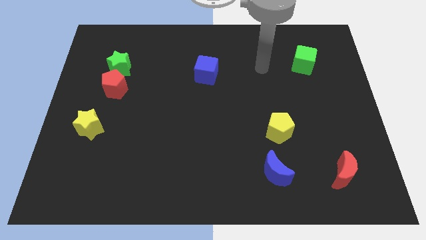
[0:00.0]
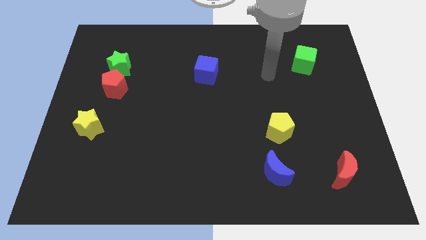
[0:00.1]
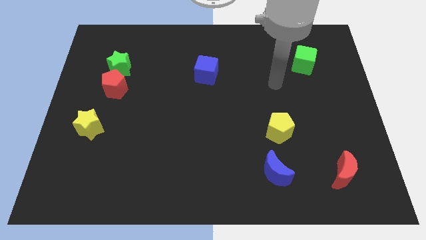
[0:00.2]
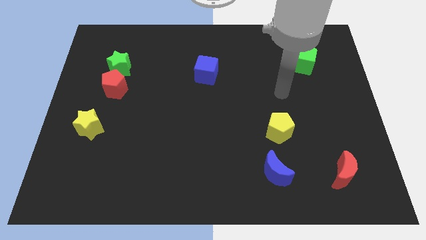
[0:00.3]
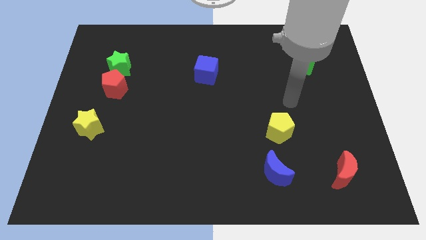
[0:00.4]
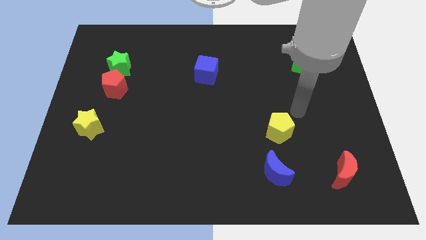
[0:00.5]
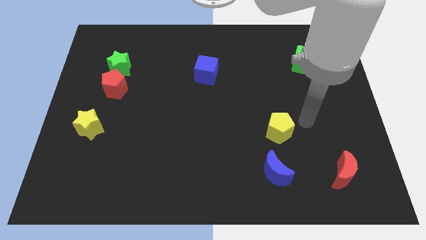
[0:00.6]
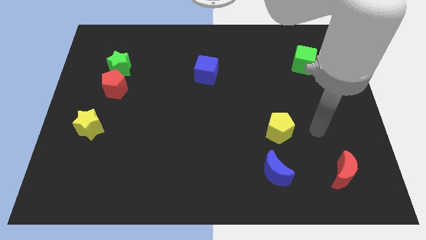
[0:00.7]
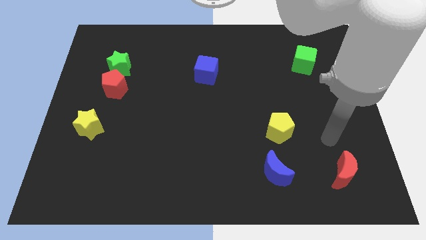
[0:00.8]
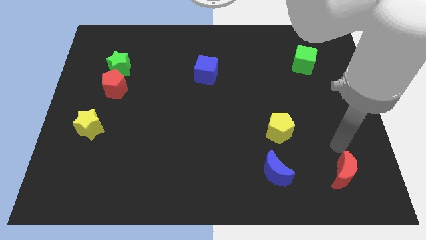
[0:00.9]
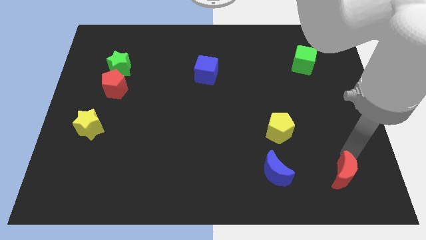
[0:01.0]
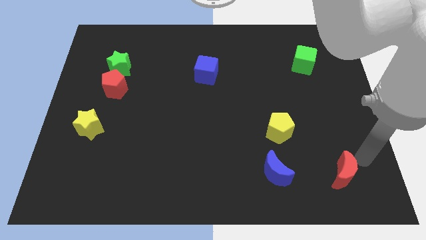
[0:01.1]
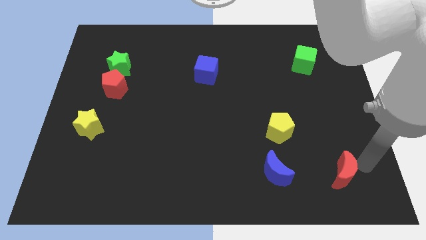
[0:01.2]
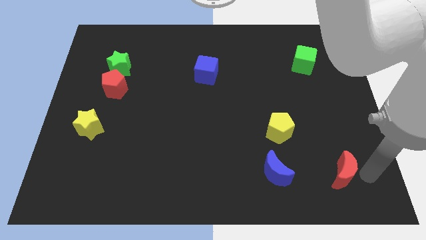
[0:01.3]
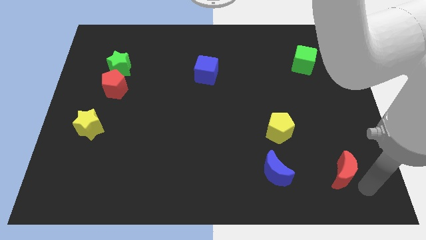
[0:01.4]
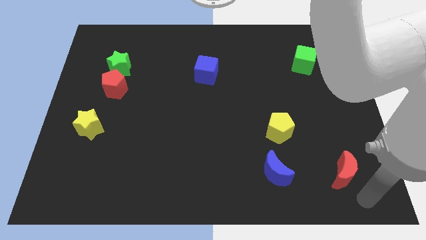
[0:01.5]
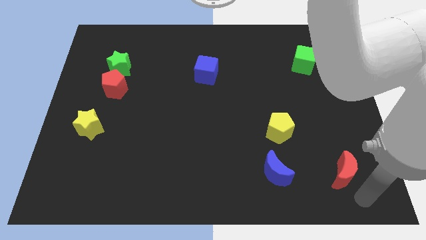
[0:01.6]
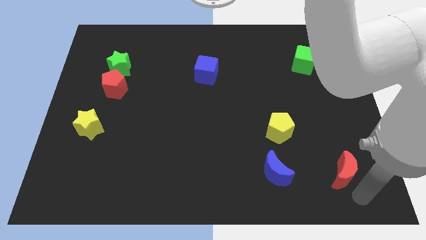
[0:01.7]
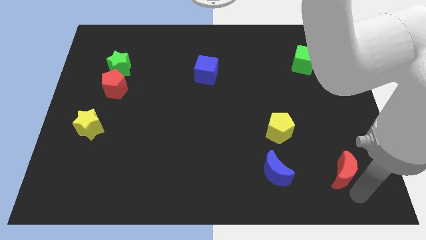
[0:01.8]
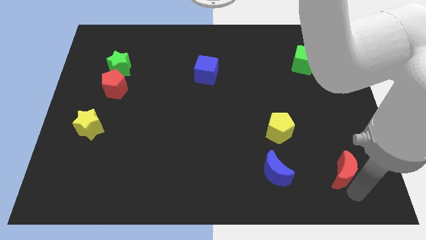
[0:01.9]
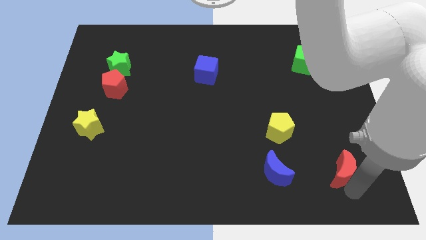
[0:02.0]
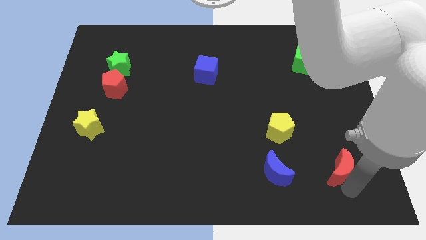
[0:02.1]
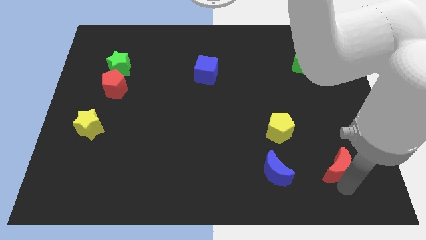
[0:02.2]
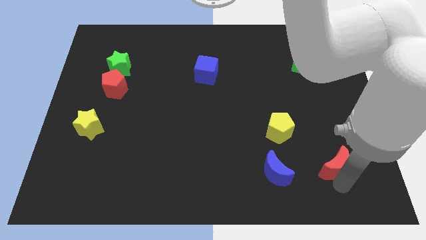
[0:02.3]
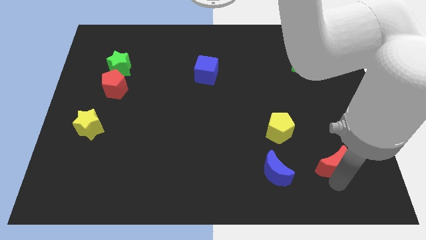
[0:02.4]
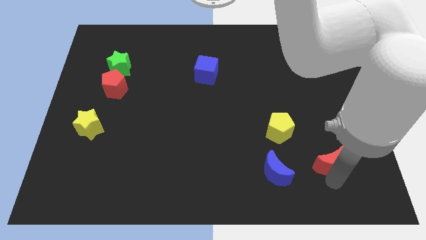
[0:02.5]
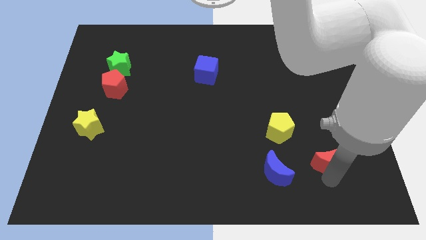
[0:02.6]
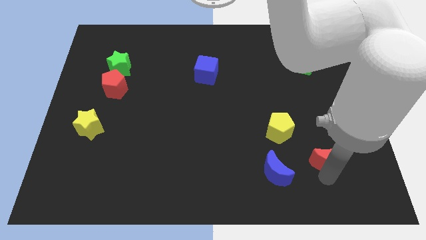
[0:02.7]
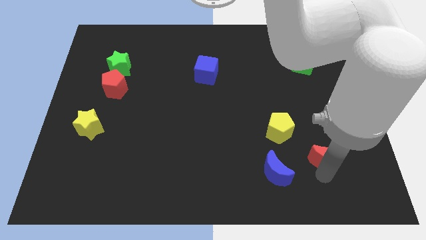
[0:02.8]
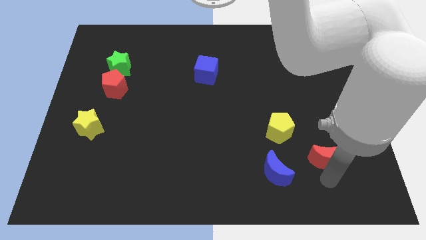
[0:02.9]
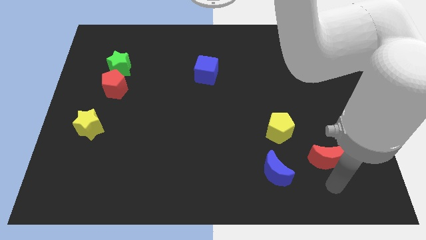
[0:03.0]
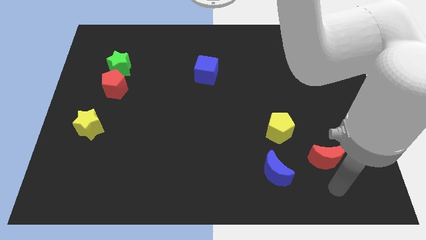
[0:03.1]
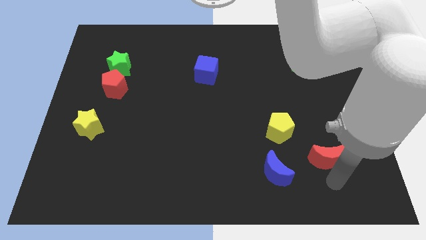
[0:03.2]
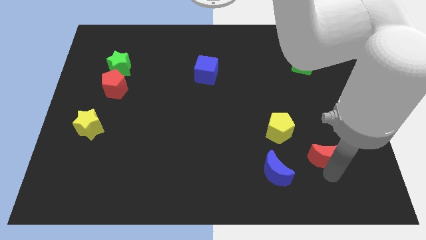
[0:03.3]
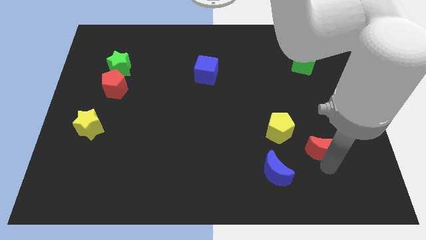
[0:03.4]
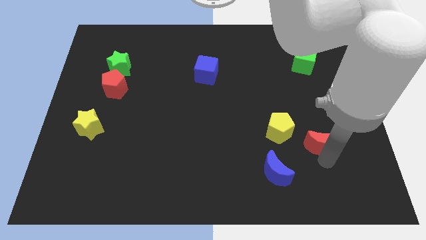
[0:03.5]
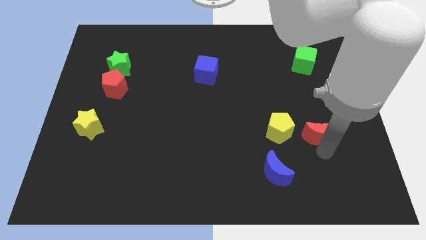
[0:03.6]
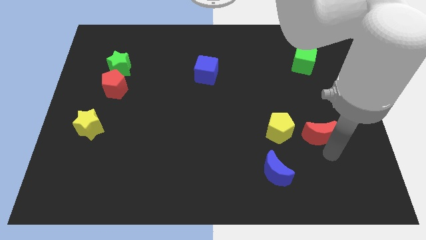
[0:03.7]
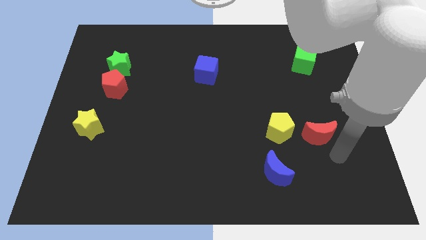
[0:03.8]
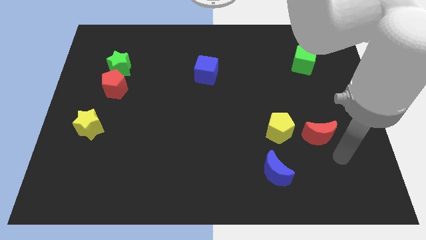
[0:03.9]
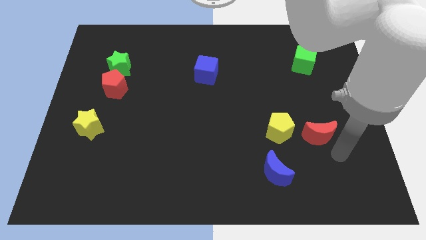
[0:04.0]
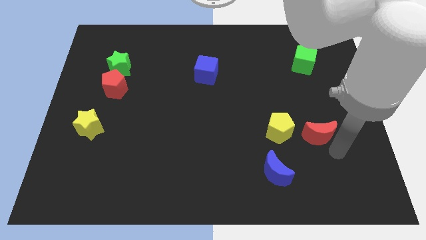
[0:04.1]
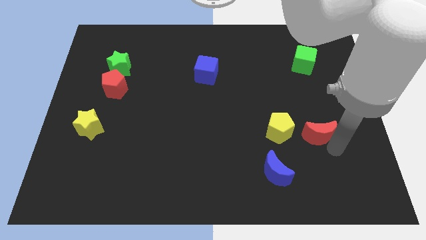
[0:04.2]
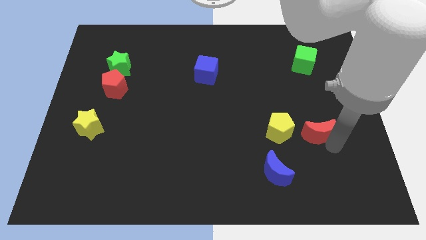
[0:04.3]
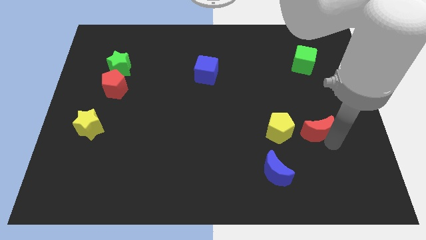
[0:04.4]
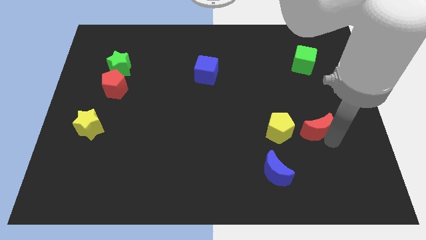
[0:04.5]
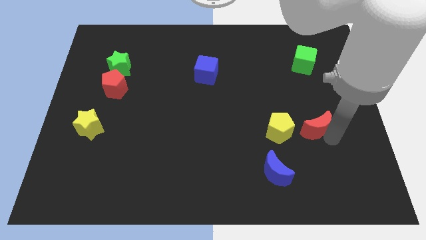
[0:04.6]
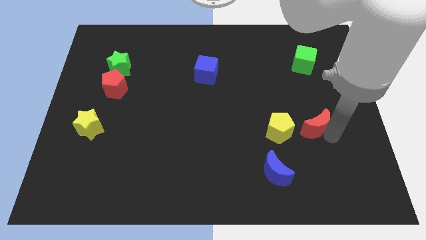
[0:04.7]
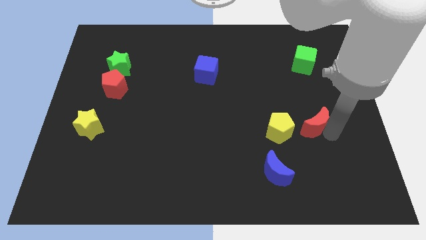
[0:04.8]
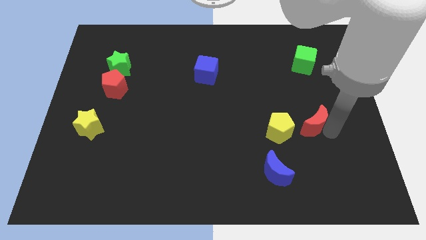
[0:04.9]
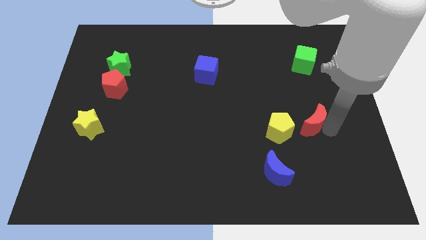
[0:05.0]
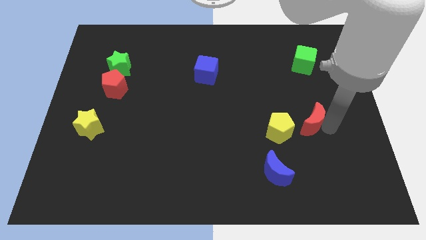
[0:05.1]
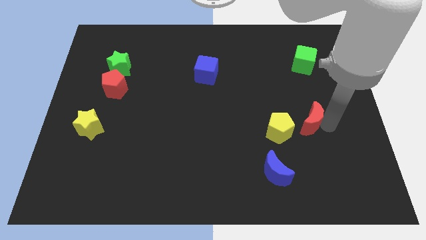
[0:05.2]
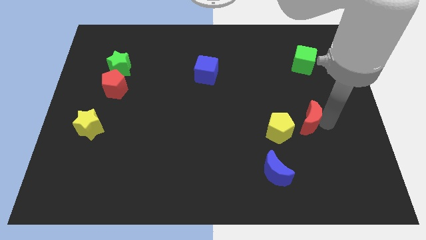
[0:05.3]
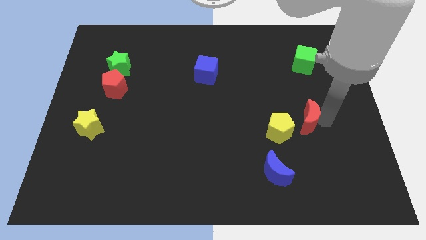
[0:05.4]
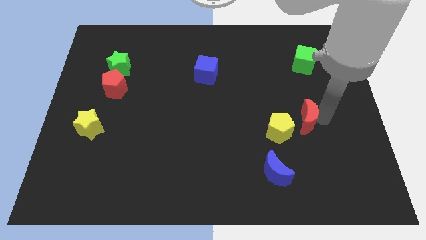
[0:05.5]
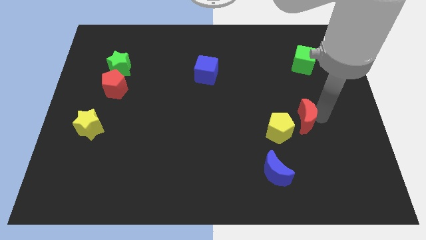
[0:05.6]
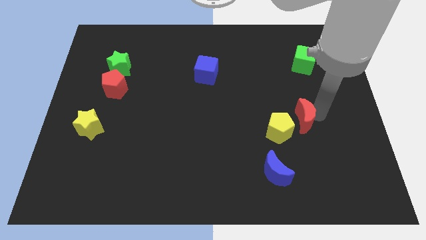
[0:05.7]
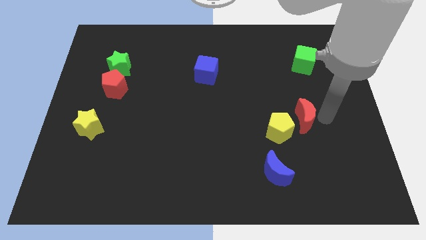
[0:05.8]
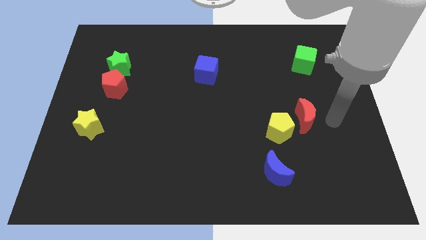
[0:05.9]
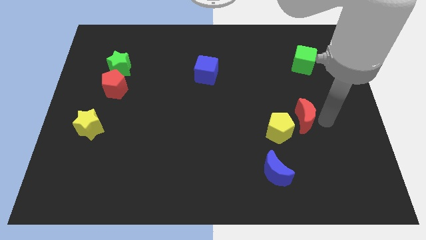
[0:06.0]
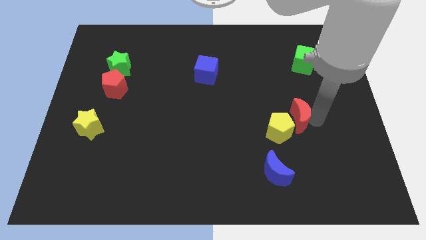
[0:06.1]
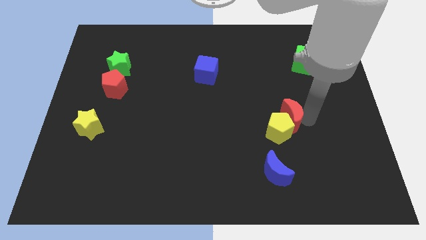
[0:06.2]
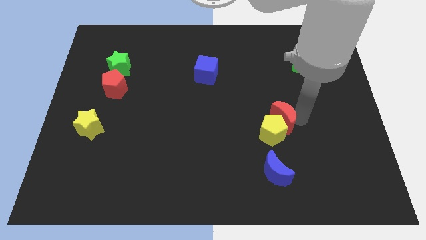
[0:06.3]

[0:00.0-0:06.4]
put the red moon above the blue moon

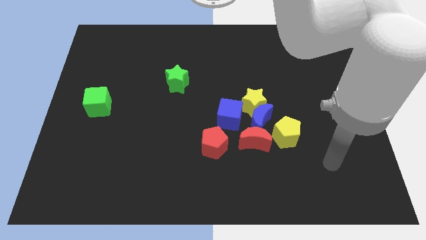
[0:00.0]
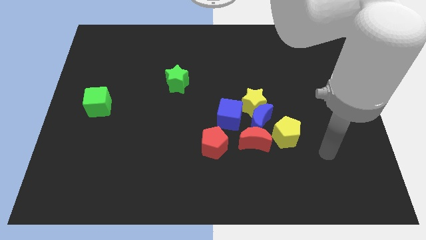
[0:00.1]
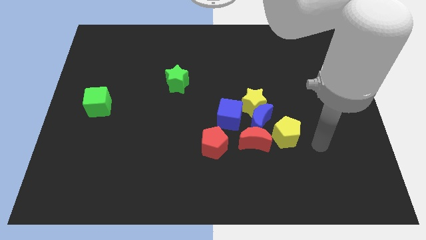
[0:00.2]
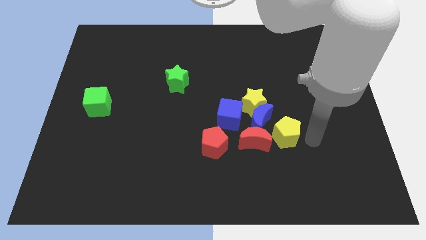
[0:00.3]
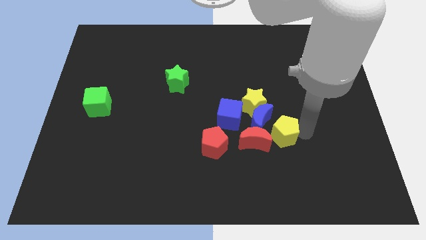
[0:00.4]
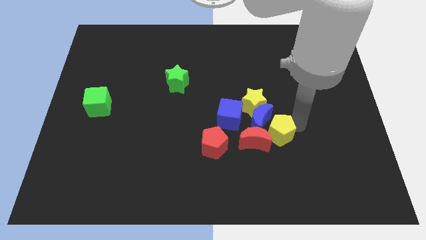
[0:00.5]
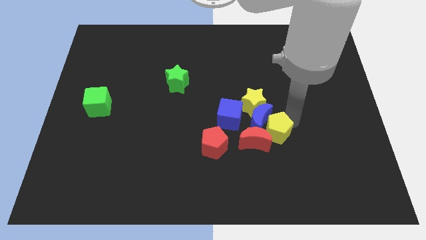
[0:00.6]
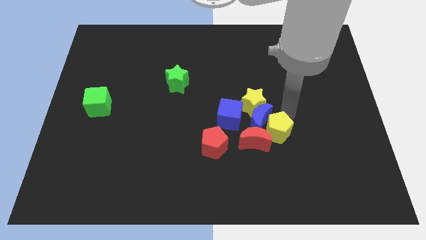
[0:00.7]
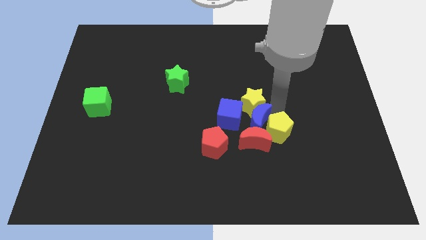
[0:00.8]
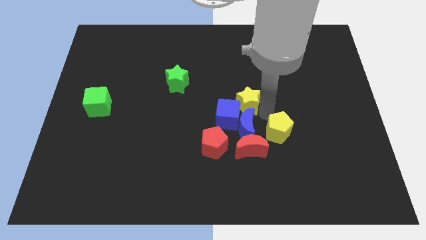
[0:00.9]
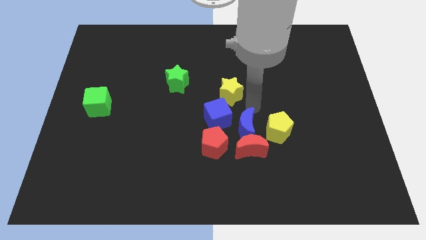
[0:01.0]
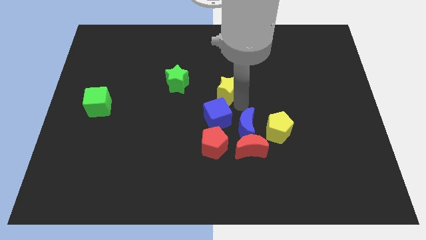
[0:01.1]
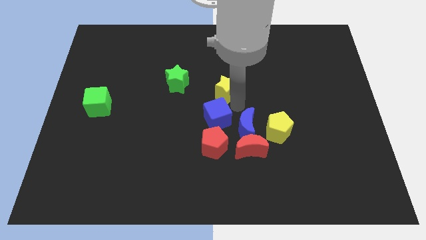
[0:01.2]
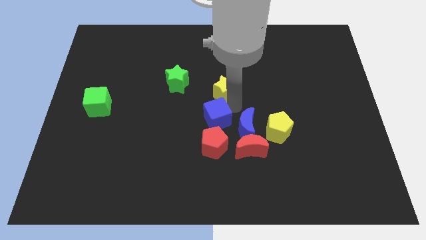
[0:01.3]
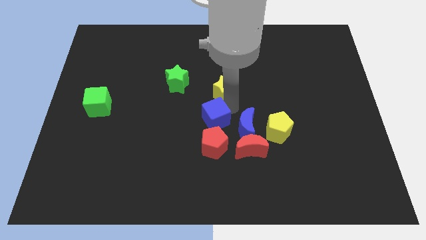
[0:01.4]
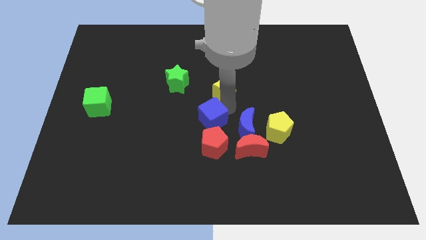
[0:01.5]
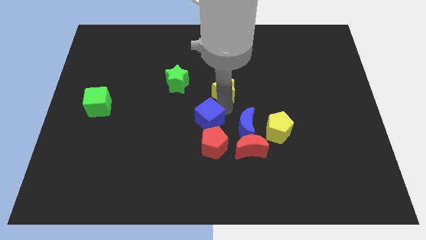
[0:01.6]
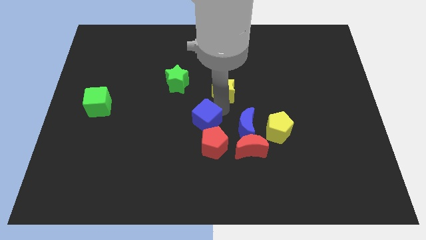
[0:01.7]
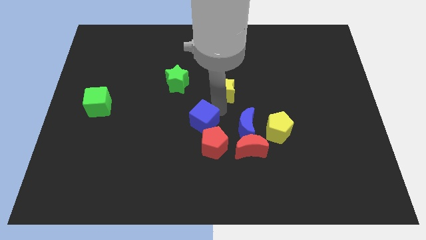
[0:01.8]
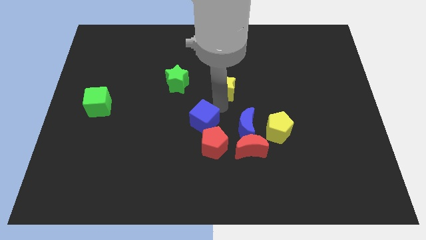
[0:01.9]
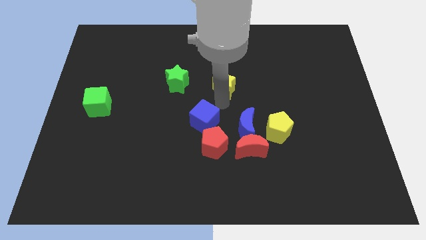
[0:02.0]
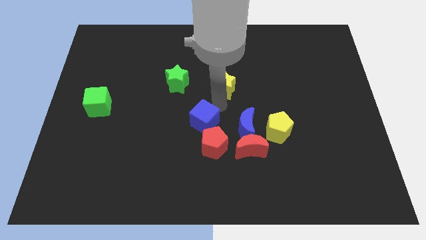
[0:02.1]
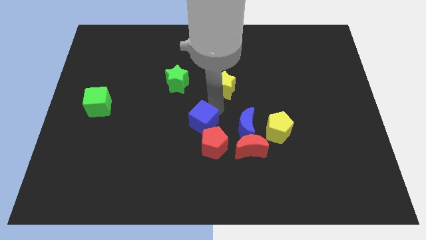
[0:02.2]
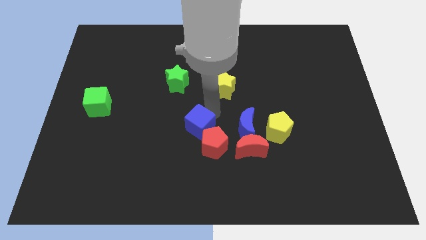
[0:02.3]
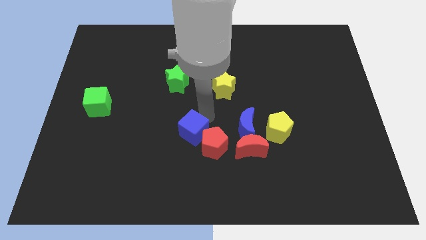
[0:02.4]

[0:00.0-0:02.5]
slide the blue cube left of the red moon
